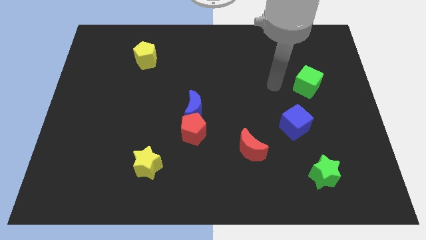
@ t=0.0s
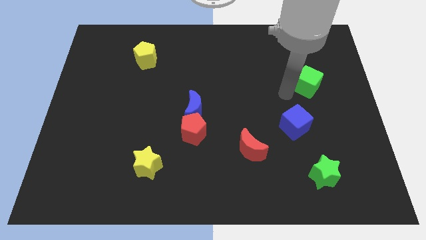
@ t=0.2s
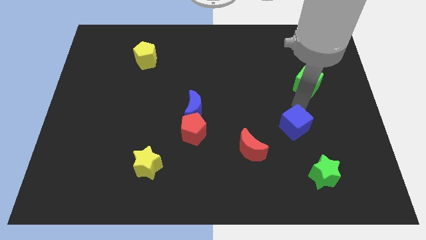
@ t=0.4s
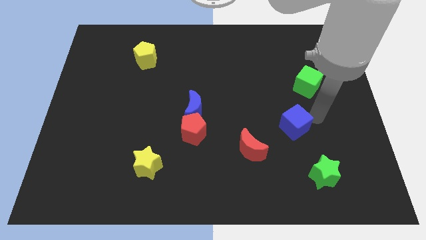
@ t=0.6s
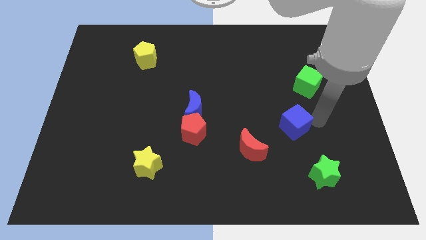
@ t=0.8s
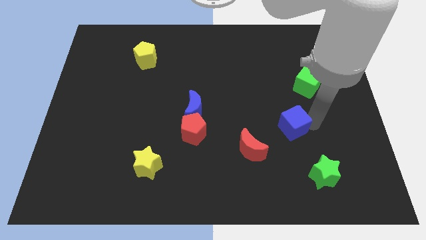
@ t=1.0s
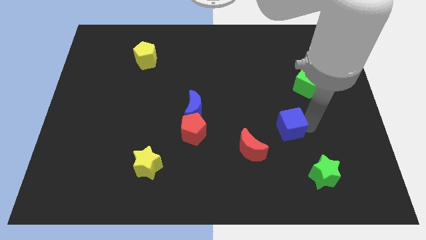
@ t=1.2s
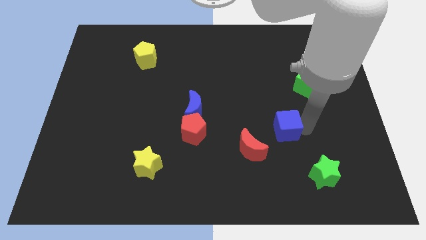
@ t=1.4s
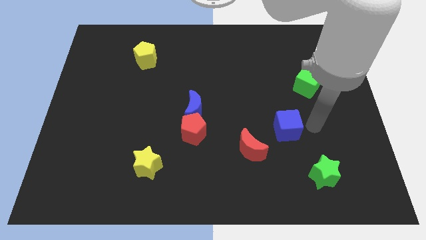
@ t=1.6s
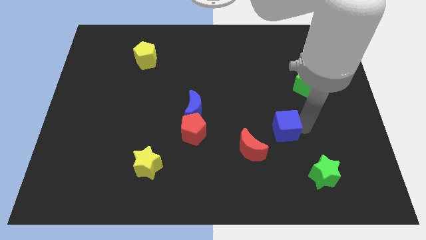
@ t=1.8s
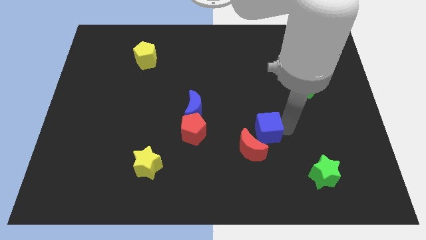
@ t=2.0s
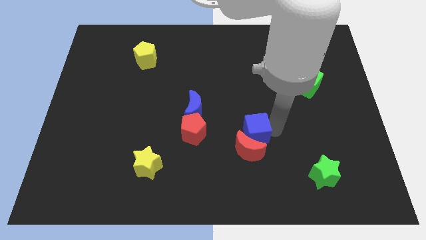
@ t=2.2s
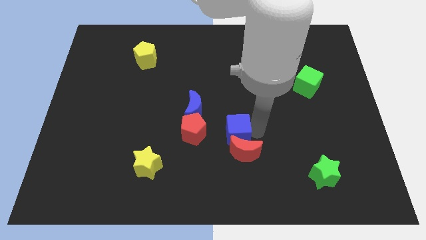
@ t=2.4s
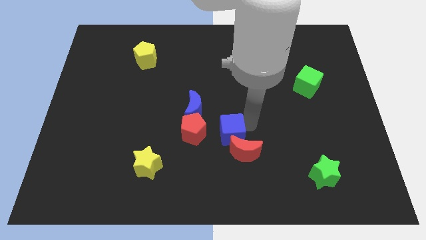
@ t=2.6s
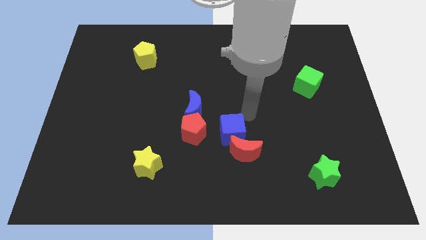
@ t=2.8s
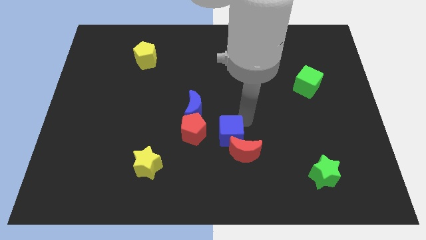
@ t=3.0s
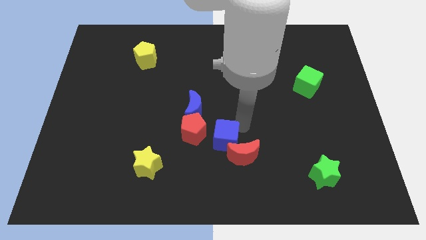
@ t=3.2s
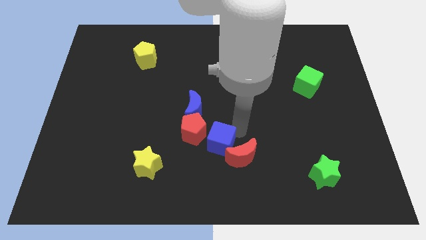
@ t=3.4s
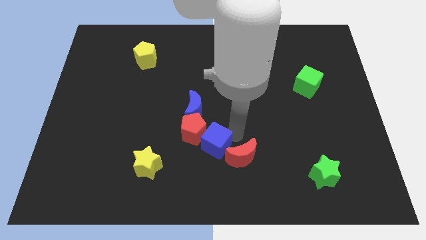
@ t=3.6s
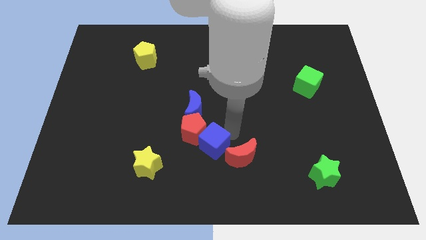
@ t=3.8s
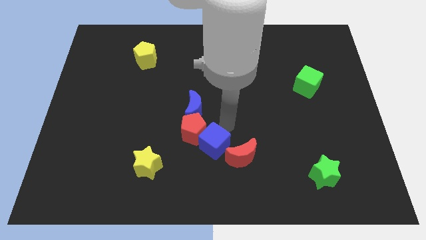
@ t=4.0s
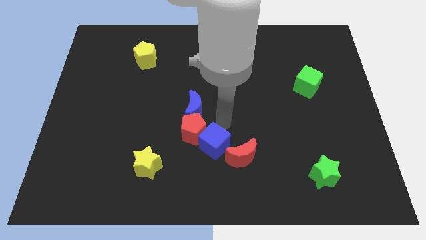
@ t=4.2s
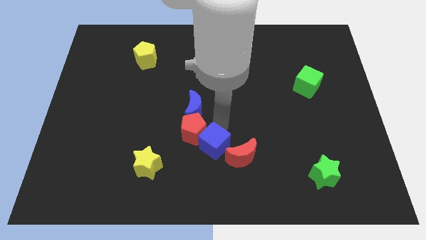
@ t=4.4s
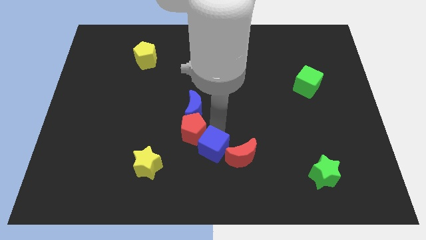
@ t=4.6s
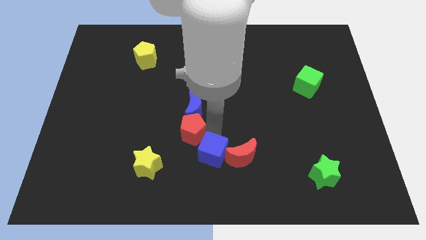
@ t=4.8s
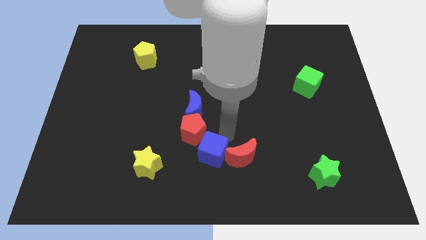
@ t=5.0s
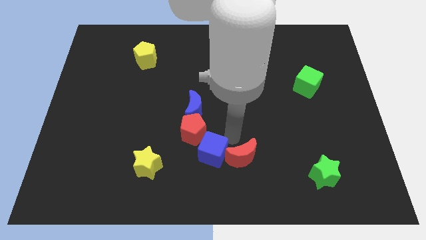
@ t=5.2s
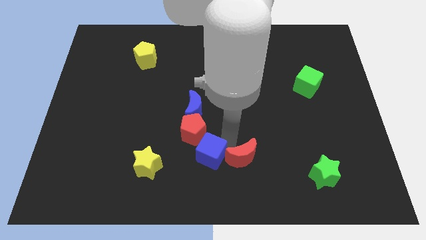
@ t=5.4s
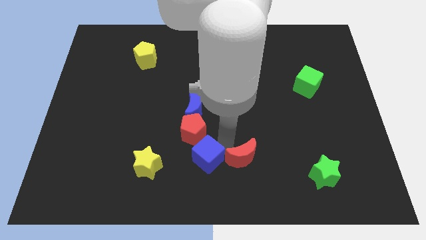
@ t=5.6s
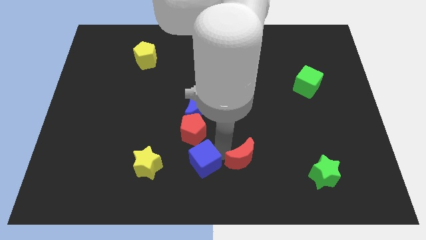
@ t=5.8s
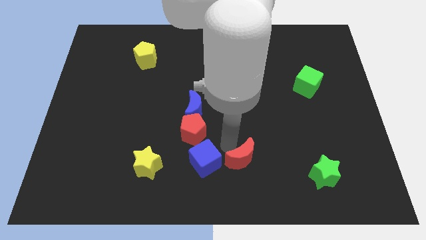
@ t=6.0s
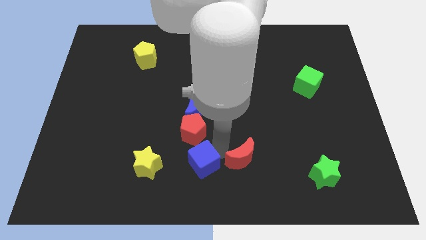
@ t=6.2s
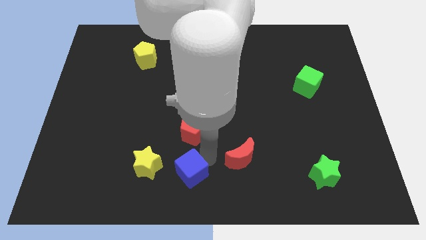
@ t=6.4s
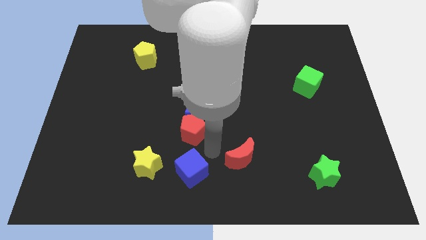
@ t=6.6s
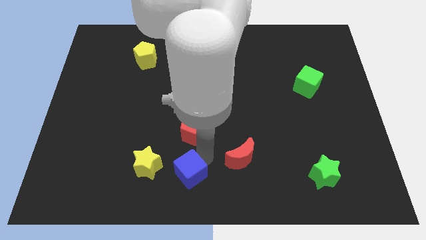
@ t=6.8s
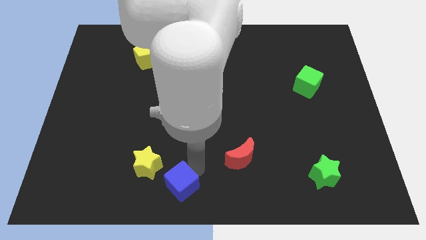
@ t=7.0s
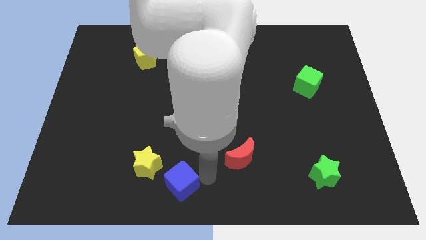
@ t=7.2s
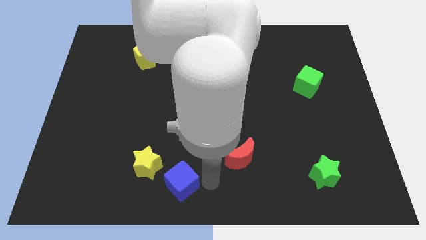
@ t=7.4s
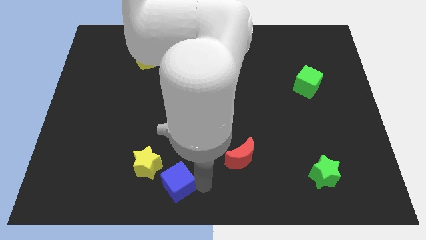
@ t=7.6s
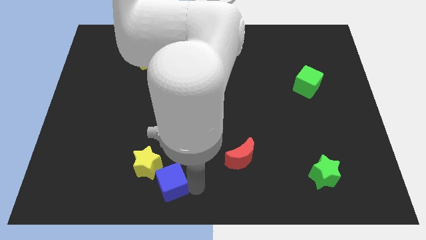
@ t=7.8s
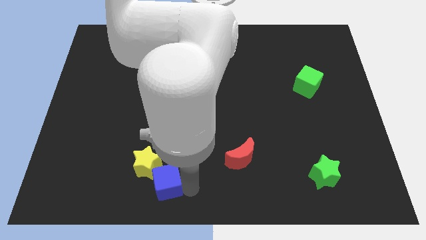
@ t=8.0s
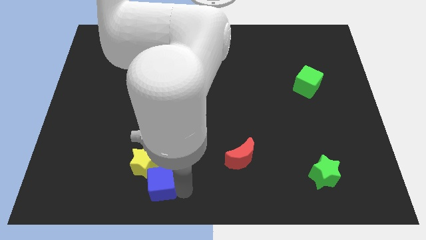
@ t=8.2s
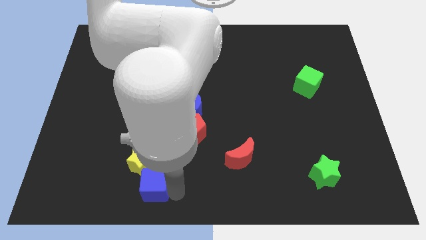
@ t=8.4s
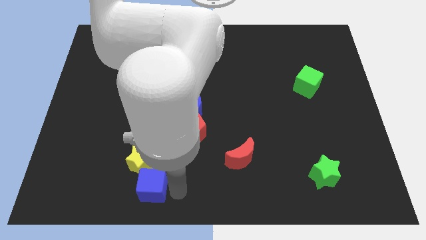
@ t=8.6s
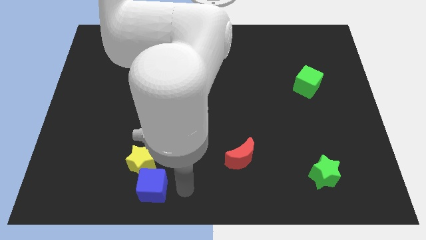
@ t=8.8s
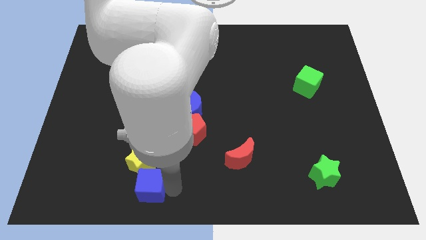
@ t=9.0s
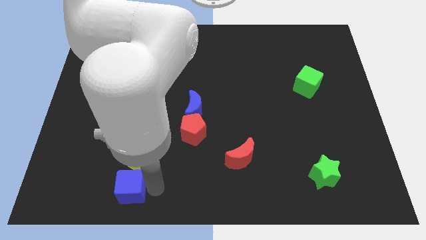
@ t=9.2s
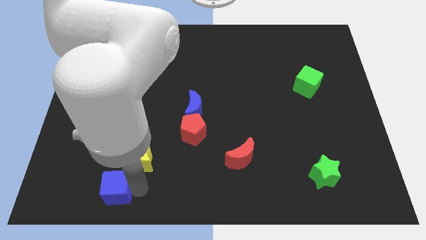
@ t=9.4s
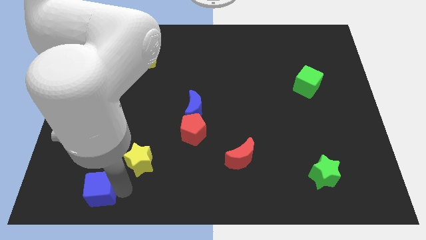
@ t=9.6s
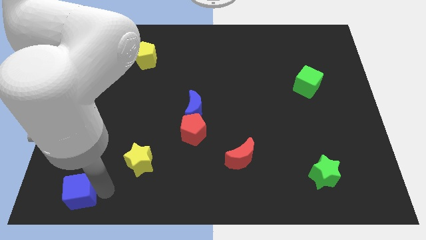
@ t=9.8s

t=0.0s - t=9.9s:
push the blue cube to the bottom left corner

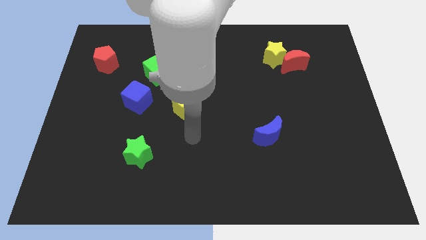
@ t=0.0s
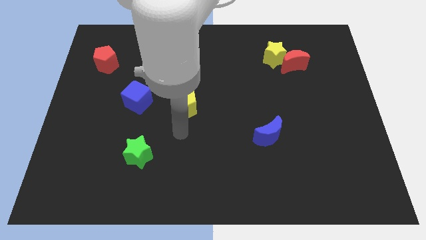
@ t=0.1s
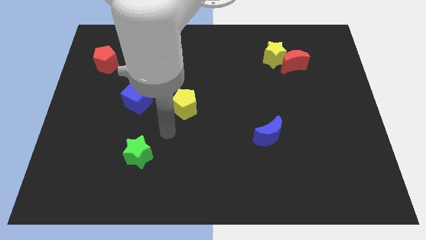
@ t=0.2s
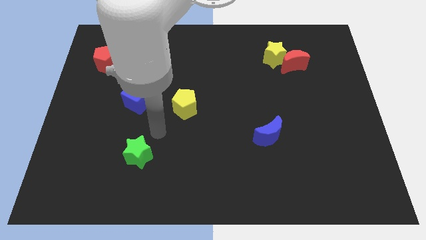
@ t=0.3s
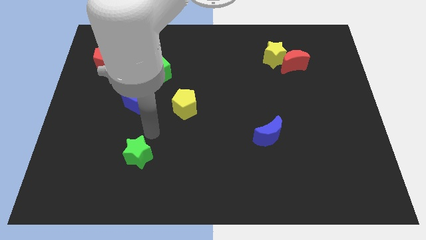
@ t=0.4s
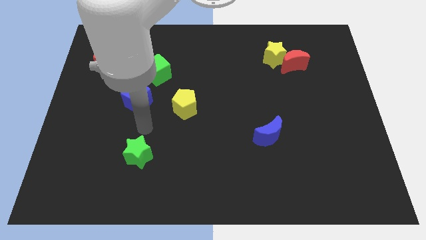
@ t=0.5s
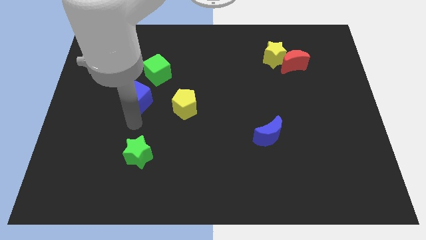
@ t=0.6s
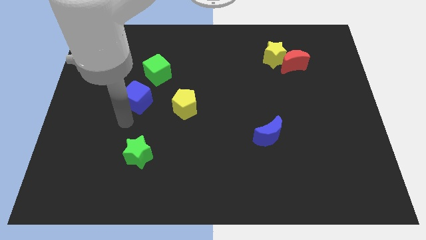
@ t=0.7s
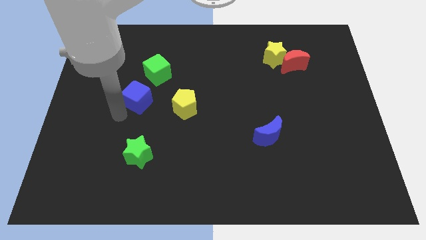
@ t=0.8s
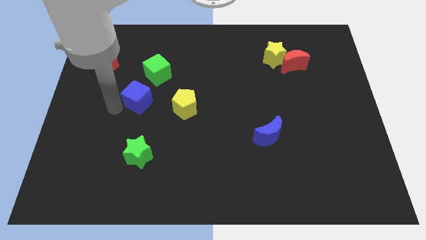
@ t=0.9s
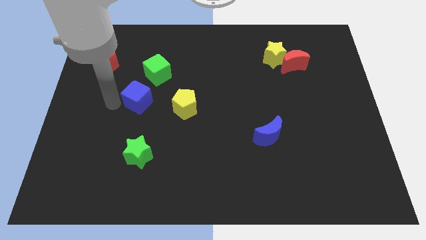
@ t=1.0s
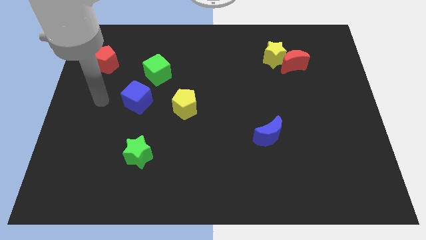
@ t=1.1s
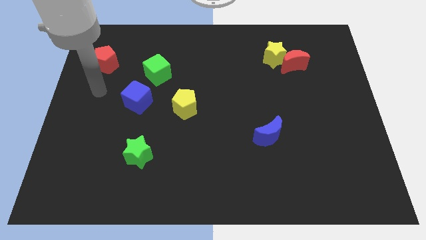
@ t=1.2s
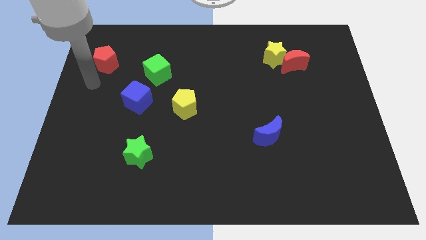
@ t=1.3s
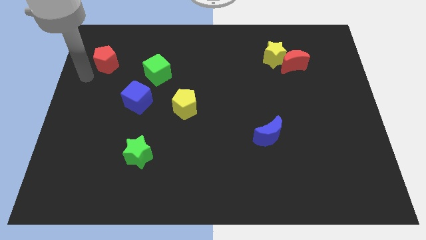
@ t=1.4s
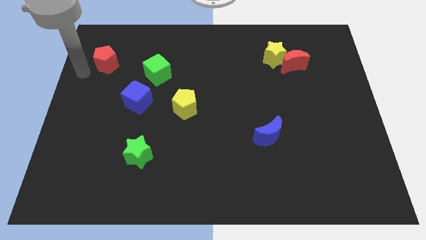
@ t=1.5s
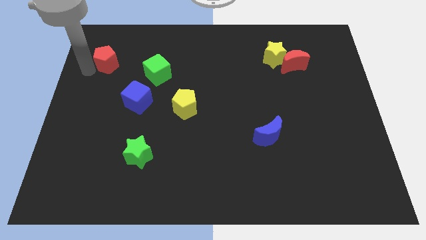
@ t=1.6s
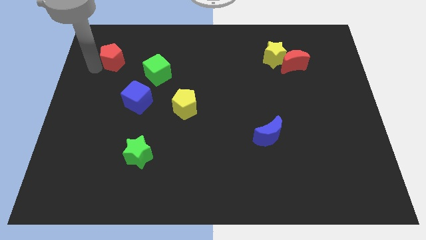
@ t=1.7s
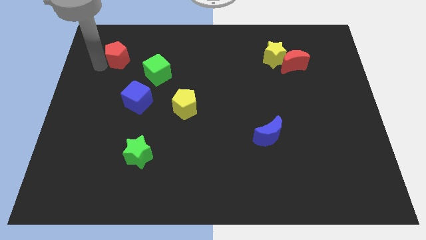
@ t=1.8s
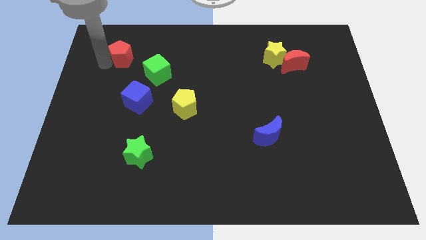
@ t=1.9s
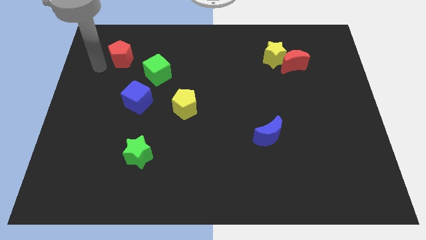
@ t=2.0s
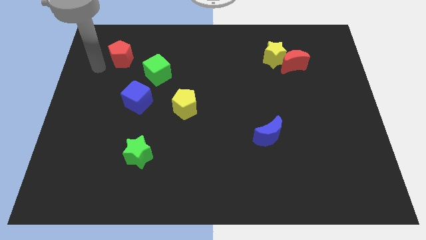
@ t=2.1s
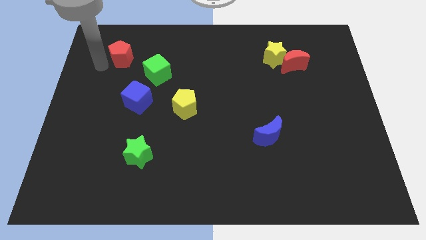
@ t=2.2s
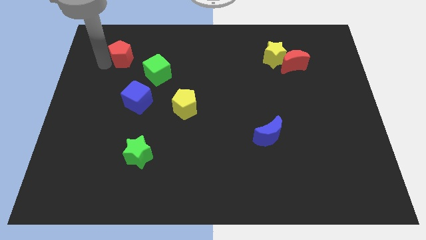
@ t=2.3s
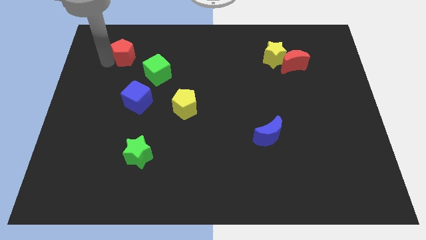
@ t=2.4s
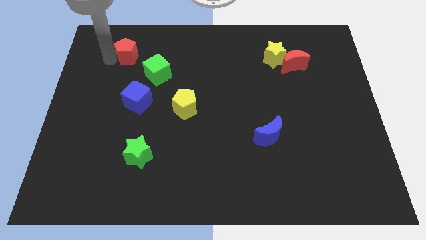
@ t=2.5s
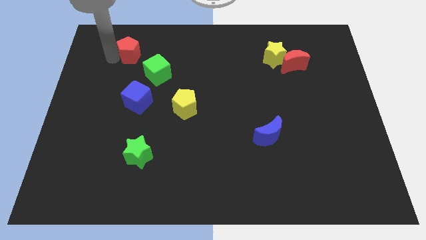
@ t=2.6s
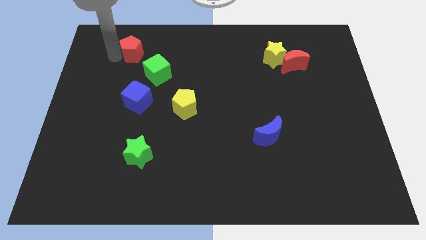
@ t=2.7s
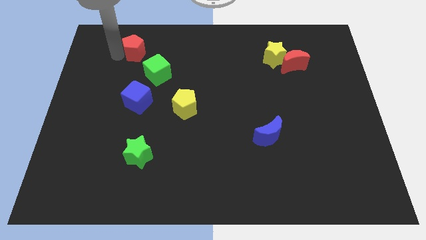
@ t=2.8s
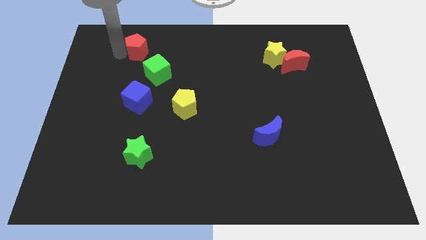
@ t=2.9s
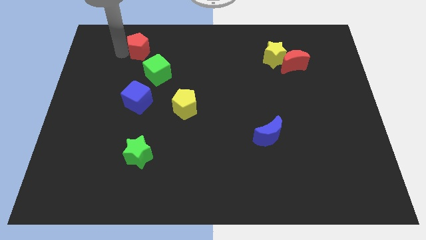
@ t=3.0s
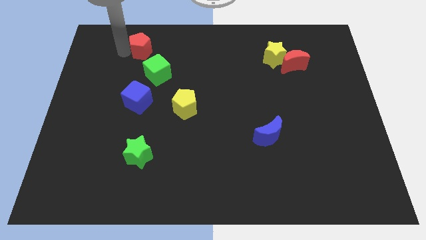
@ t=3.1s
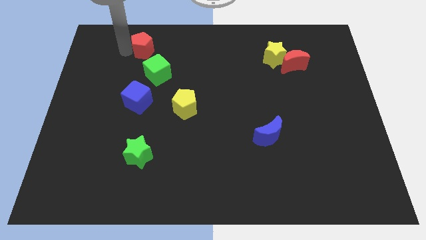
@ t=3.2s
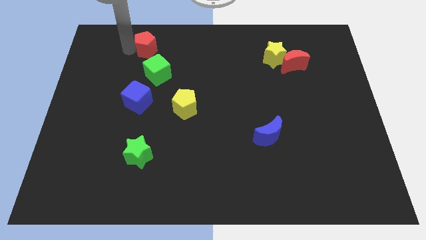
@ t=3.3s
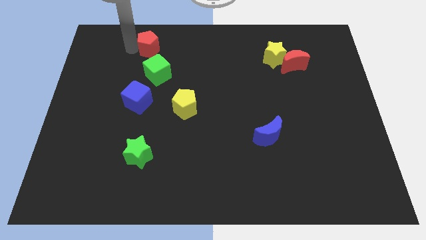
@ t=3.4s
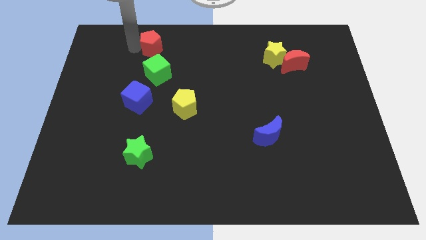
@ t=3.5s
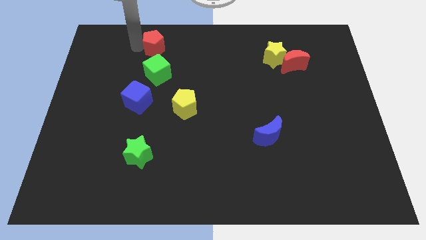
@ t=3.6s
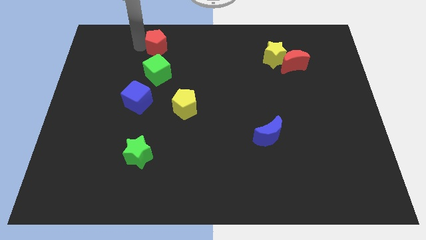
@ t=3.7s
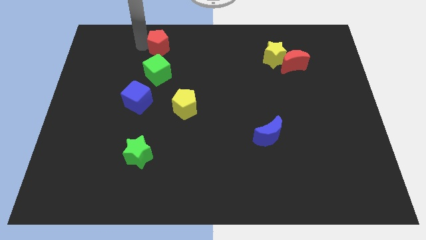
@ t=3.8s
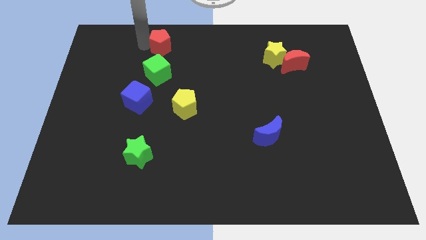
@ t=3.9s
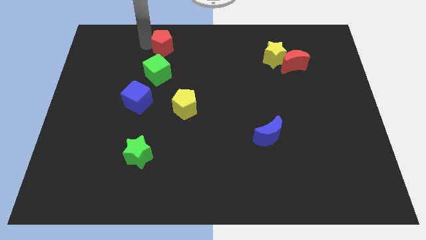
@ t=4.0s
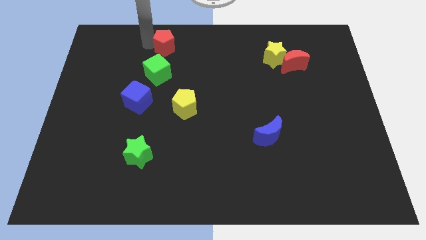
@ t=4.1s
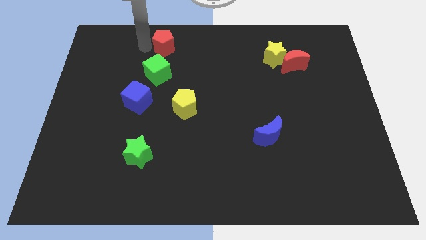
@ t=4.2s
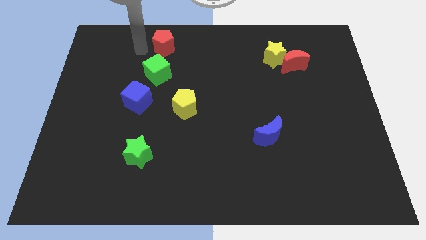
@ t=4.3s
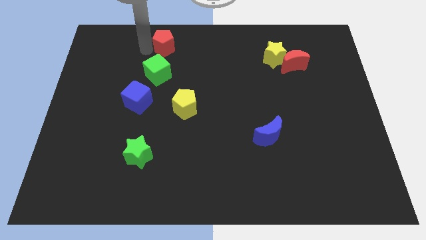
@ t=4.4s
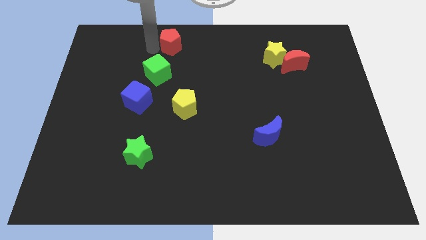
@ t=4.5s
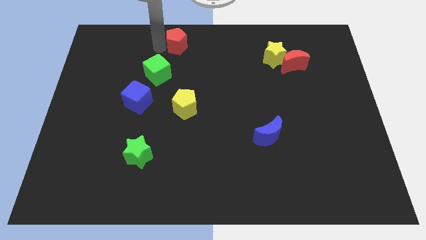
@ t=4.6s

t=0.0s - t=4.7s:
move the red pentagon to the top
